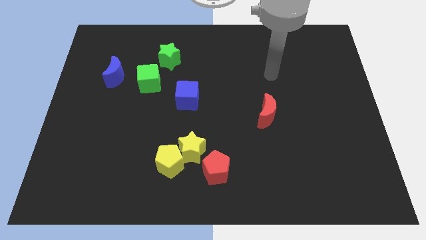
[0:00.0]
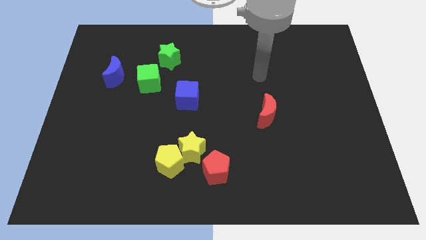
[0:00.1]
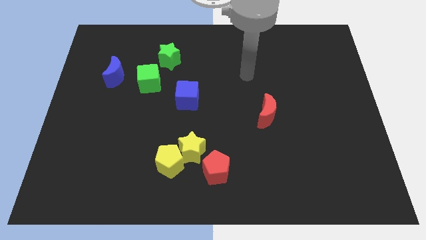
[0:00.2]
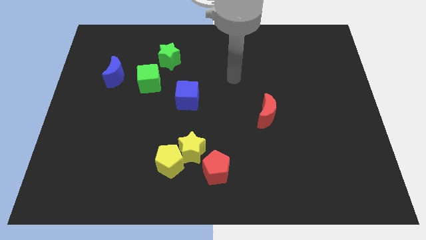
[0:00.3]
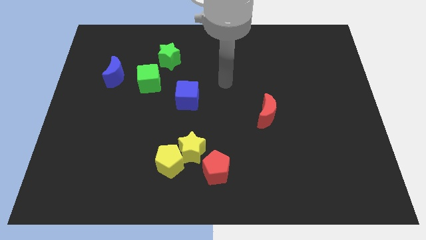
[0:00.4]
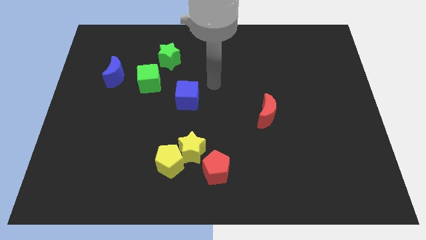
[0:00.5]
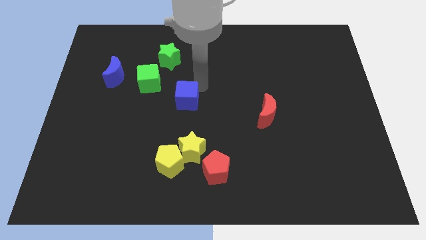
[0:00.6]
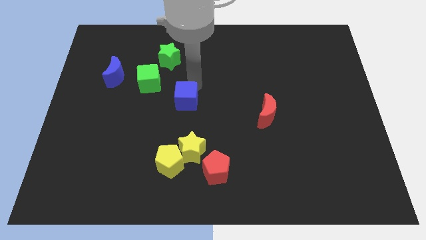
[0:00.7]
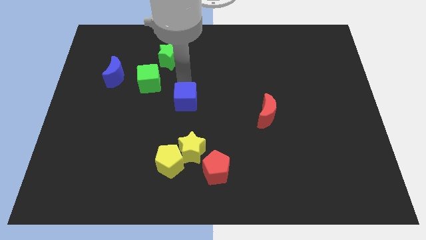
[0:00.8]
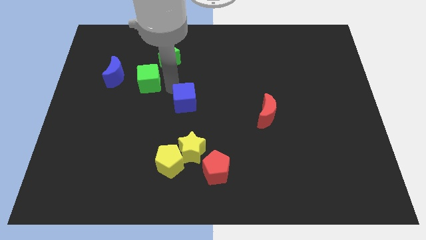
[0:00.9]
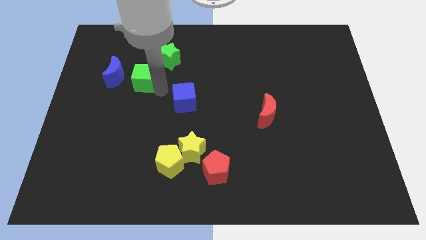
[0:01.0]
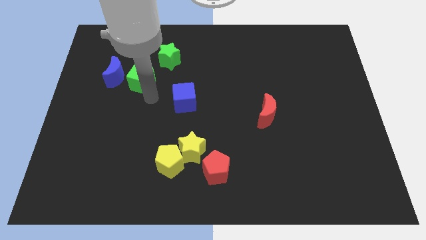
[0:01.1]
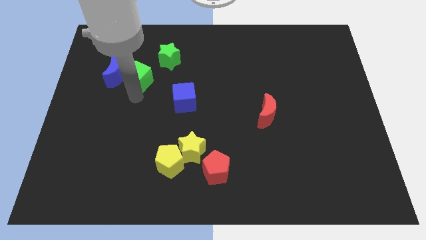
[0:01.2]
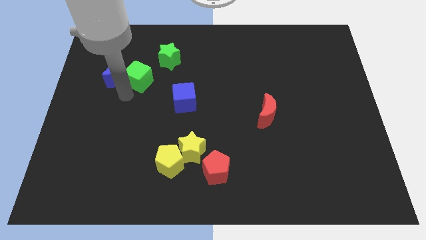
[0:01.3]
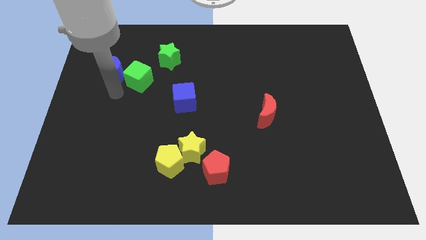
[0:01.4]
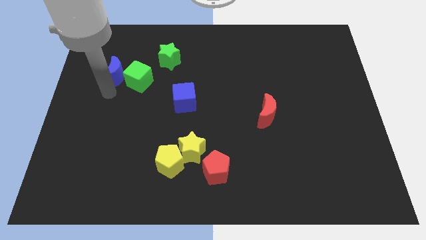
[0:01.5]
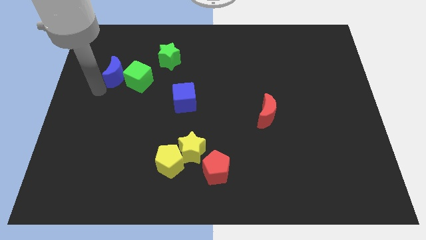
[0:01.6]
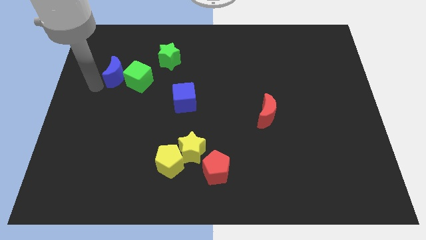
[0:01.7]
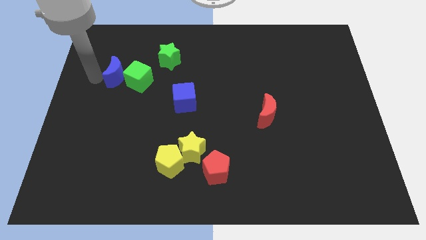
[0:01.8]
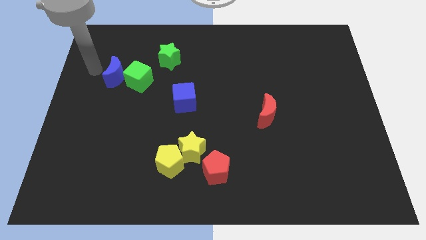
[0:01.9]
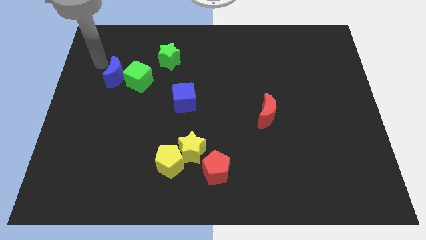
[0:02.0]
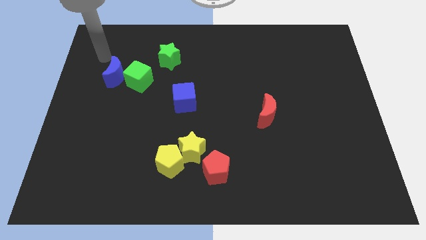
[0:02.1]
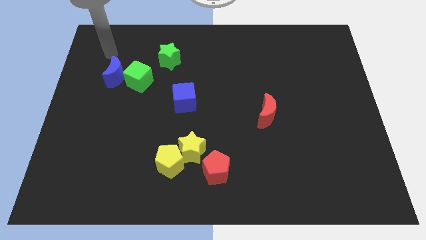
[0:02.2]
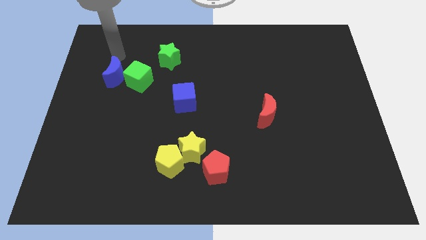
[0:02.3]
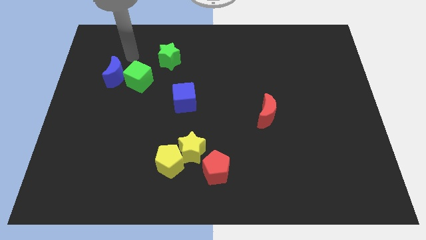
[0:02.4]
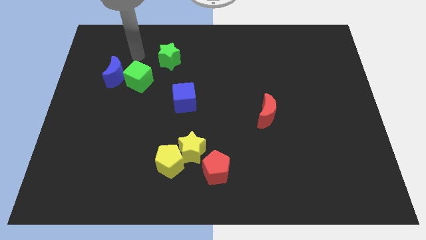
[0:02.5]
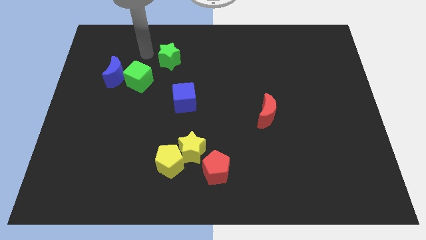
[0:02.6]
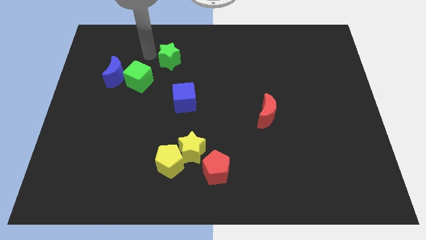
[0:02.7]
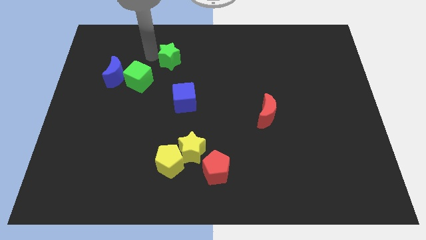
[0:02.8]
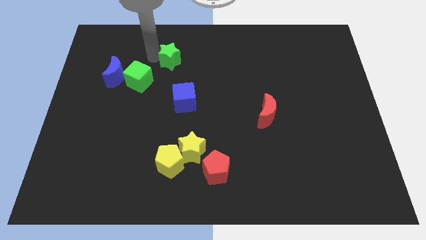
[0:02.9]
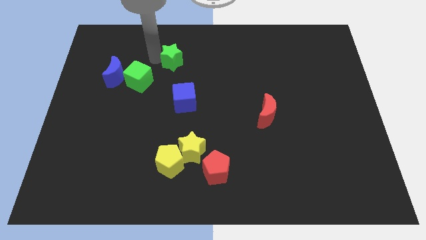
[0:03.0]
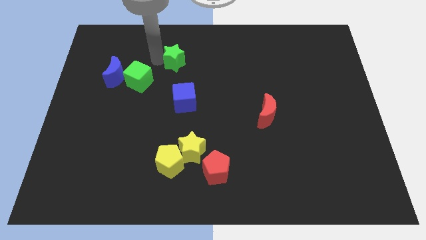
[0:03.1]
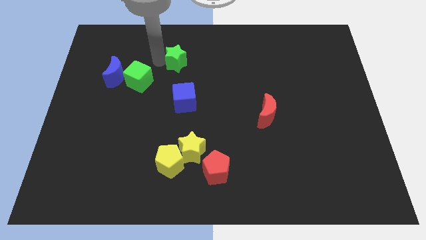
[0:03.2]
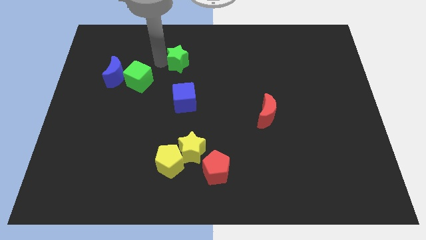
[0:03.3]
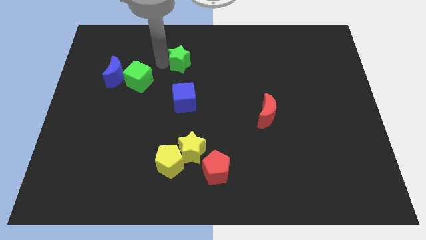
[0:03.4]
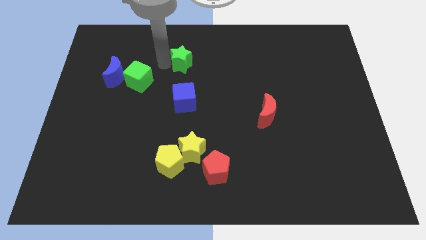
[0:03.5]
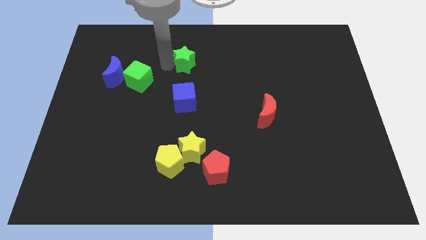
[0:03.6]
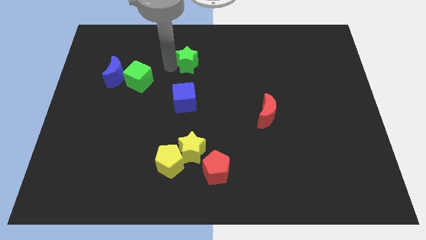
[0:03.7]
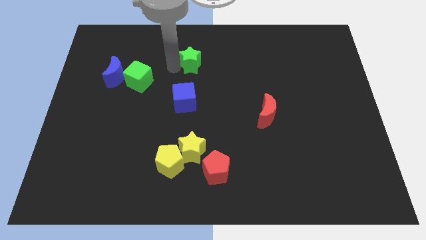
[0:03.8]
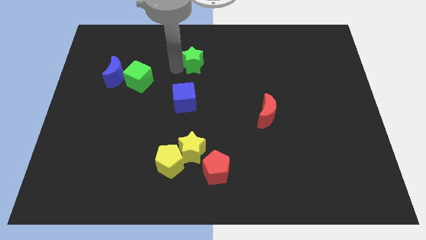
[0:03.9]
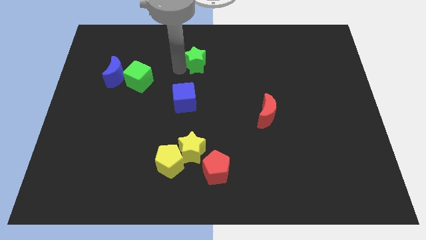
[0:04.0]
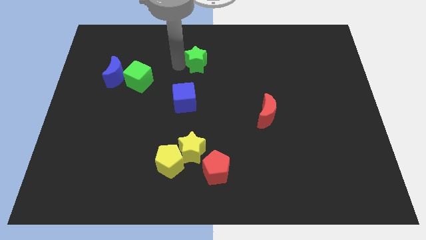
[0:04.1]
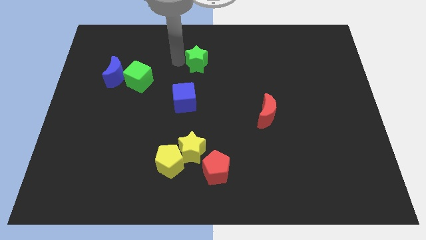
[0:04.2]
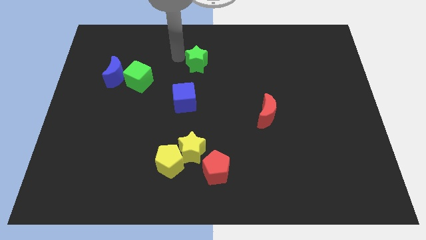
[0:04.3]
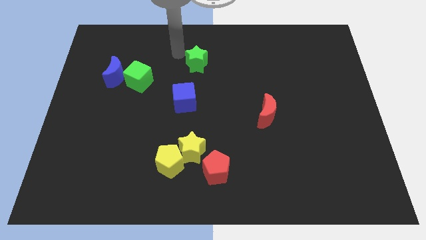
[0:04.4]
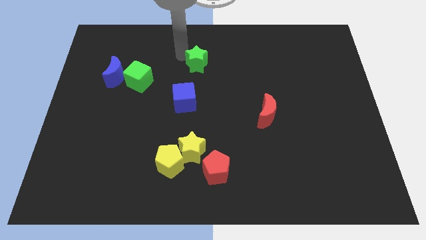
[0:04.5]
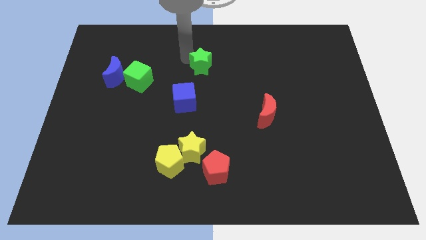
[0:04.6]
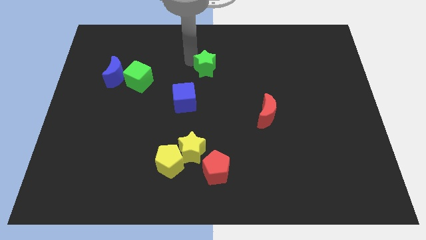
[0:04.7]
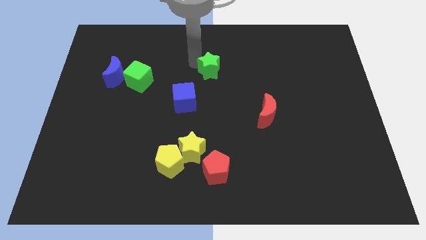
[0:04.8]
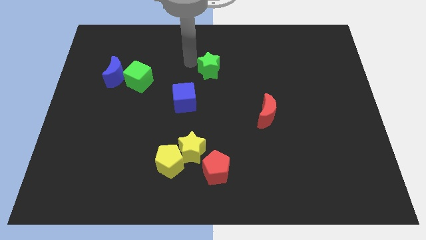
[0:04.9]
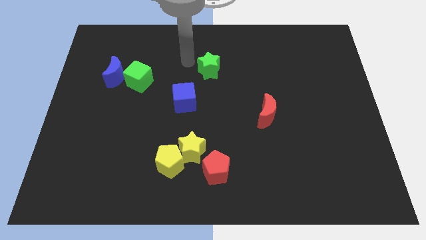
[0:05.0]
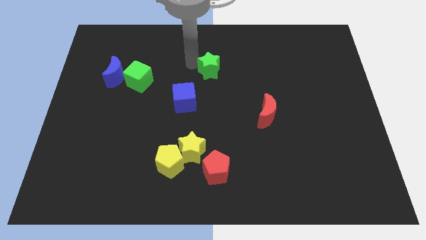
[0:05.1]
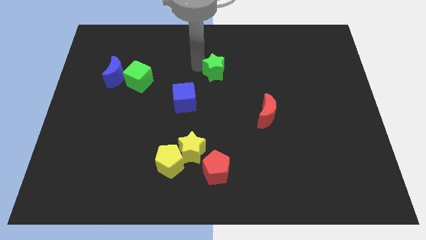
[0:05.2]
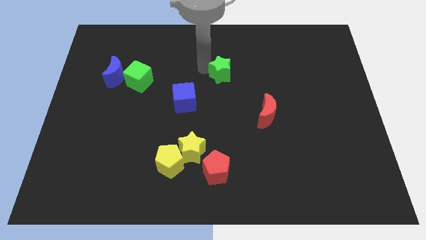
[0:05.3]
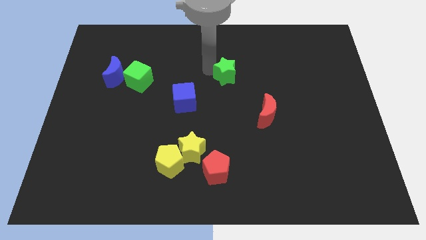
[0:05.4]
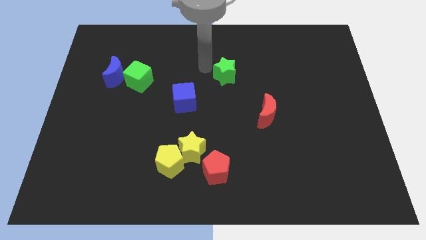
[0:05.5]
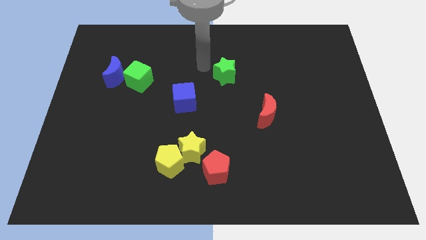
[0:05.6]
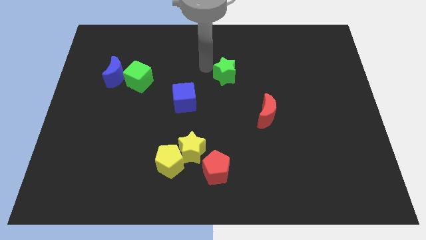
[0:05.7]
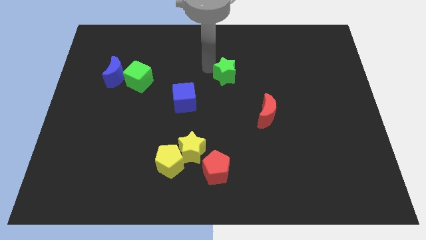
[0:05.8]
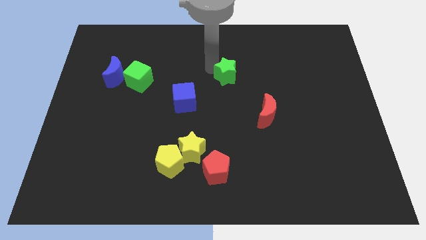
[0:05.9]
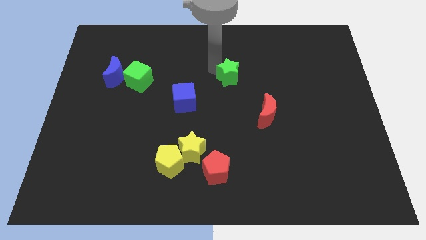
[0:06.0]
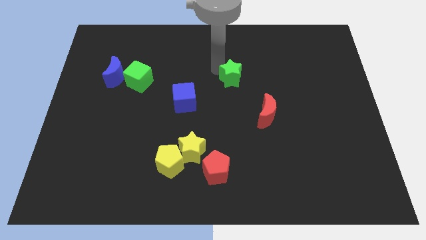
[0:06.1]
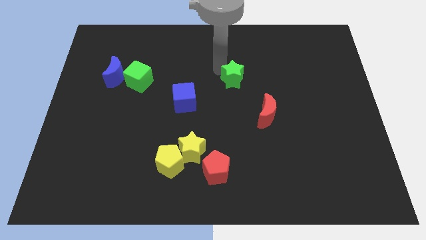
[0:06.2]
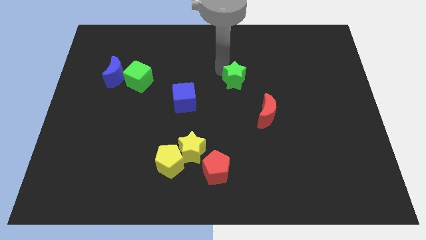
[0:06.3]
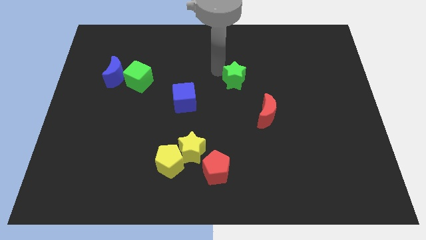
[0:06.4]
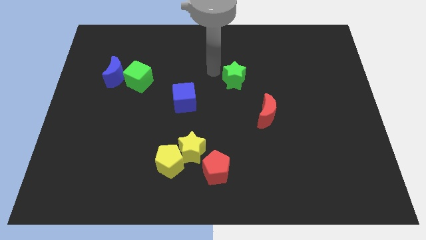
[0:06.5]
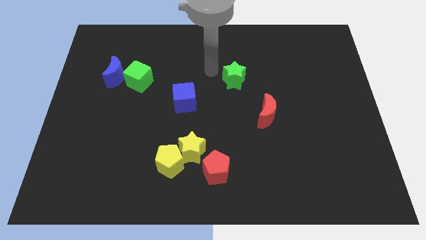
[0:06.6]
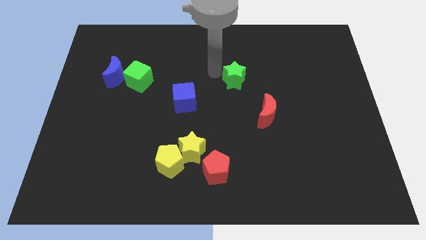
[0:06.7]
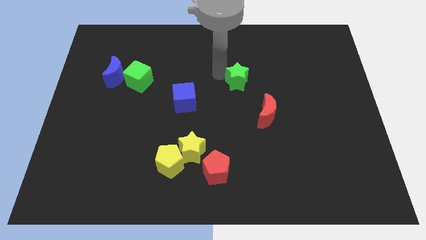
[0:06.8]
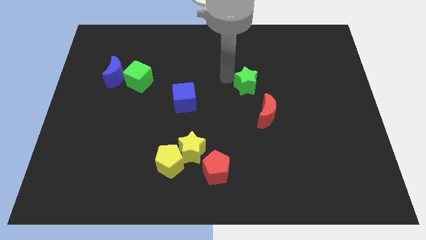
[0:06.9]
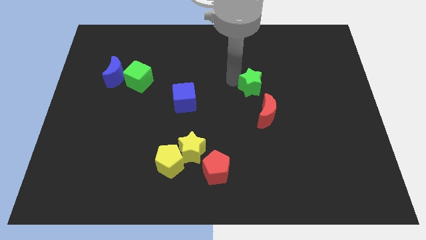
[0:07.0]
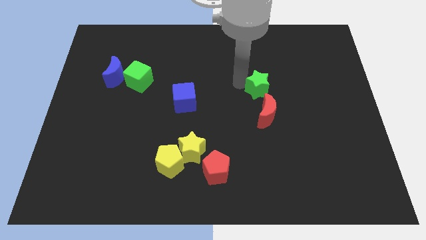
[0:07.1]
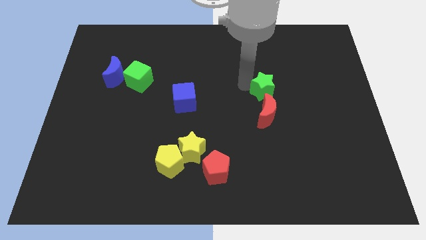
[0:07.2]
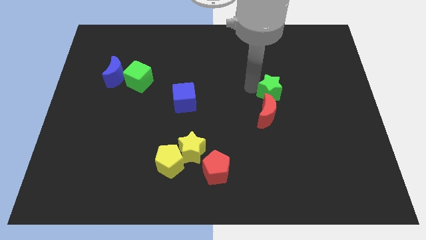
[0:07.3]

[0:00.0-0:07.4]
slide the green star diagonally up and to the right of the red moon
